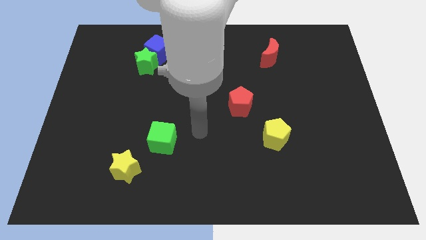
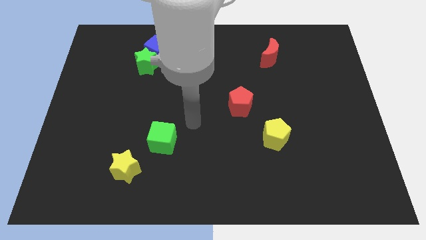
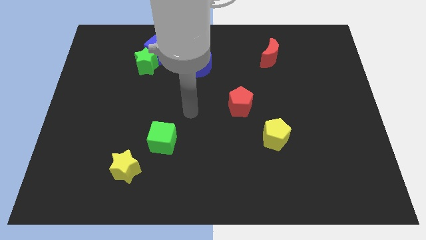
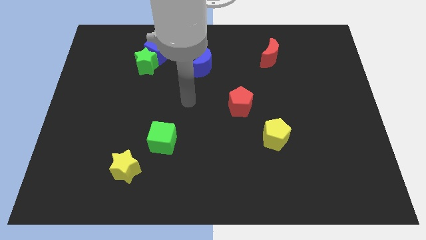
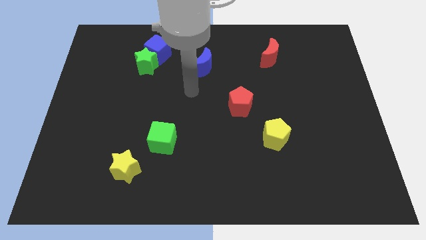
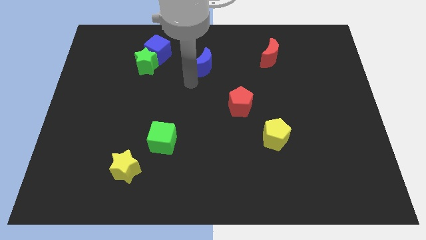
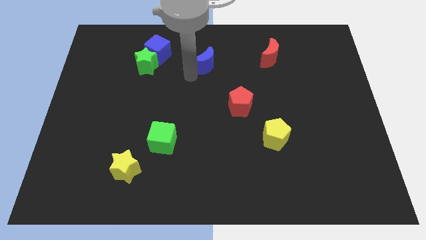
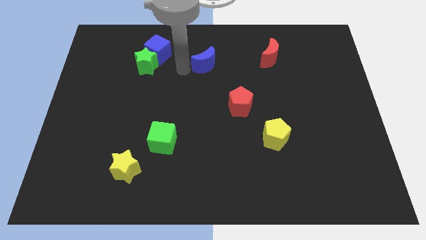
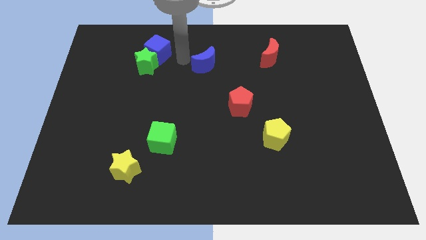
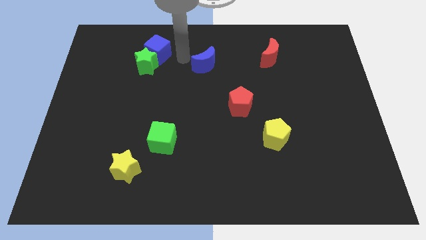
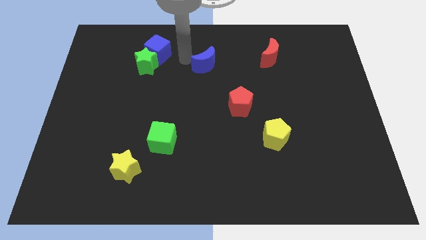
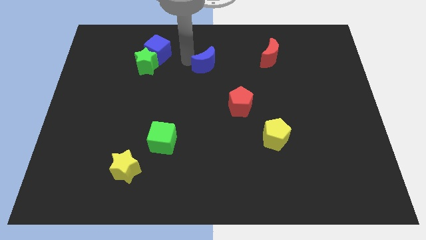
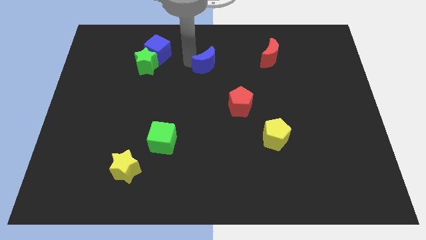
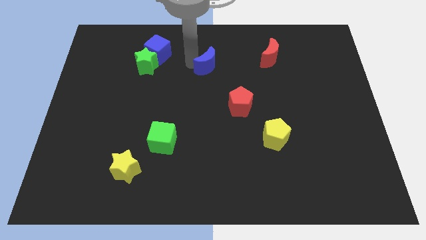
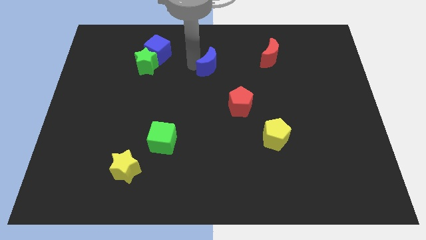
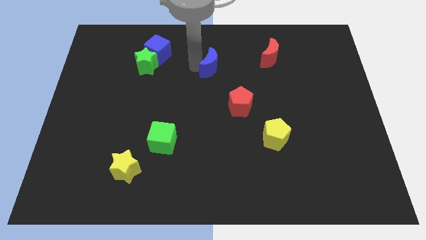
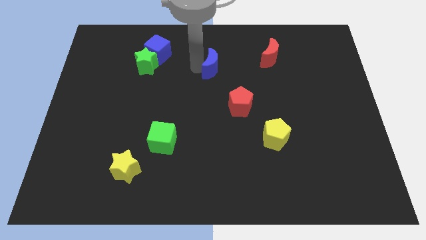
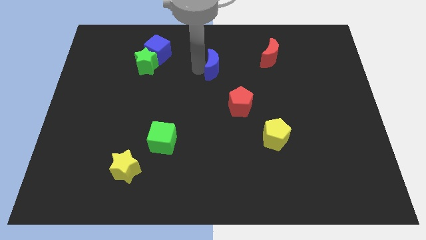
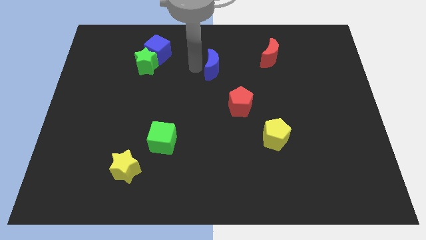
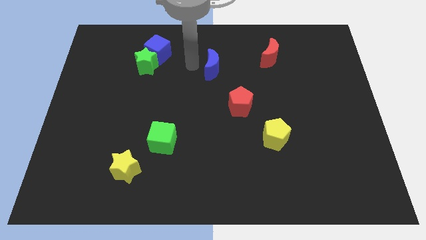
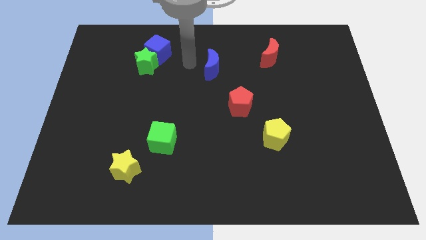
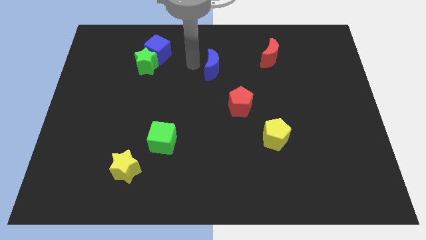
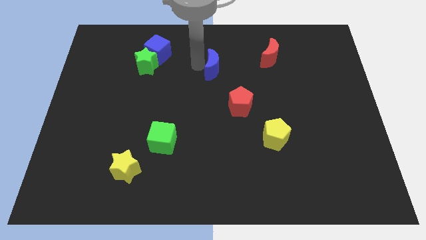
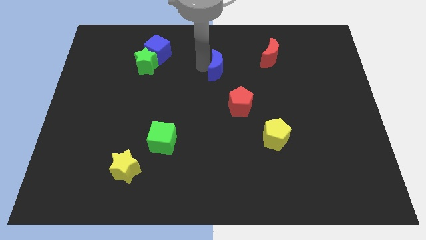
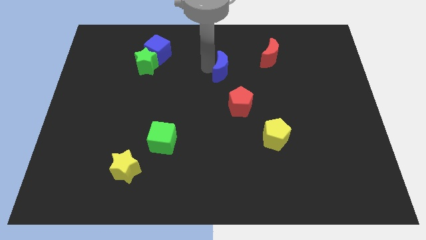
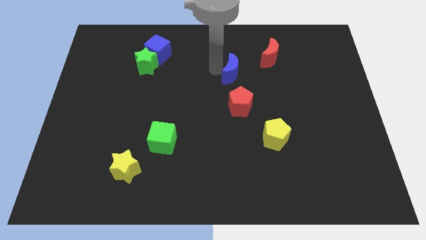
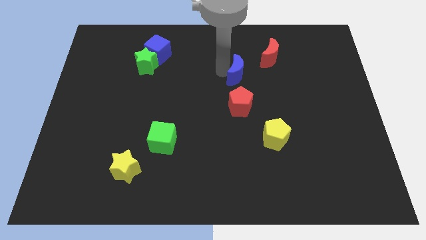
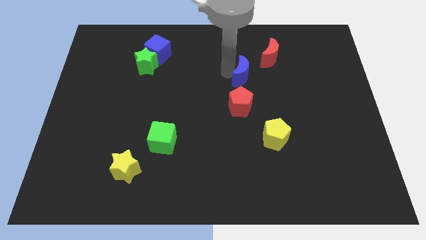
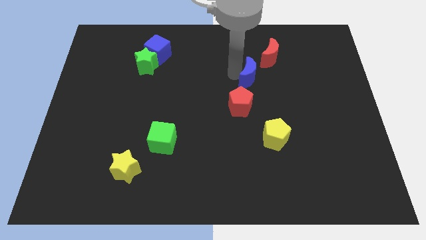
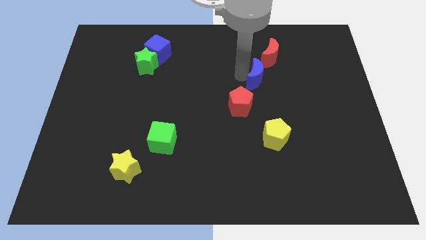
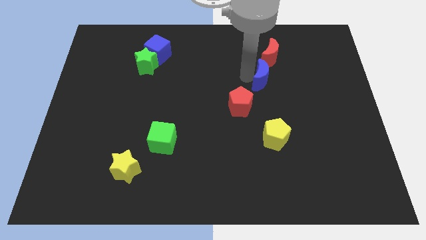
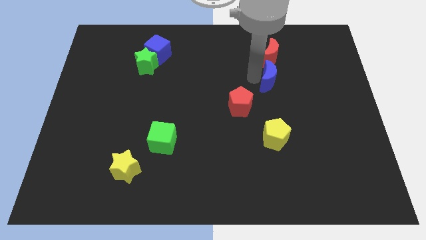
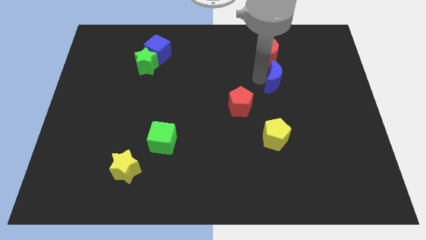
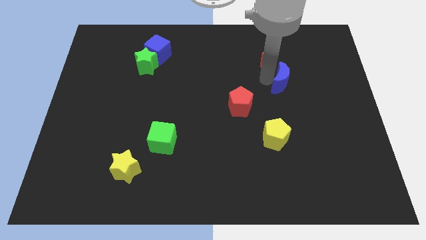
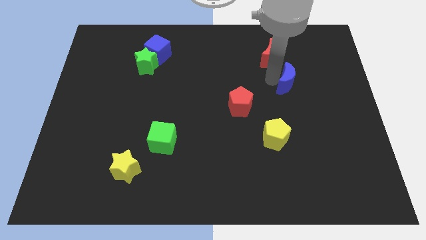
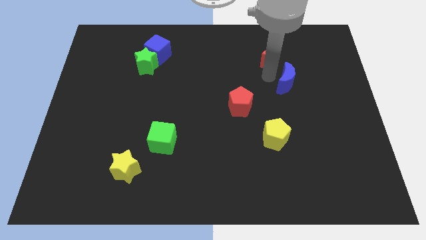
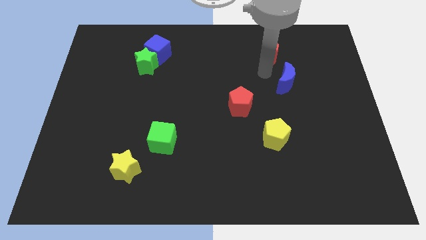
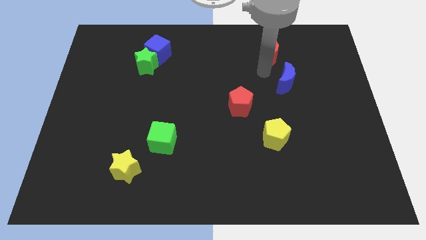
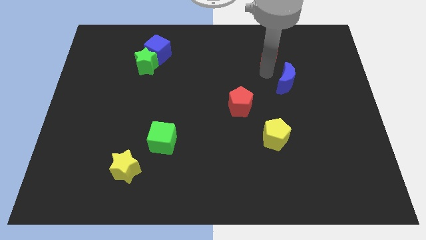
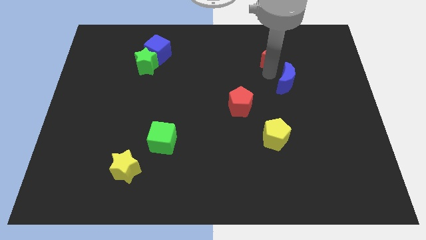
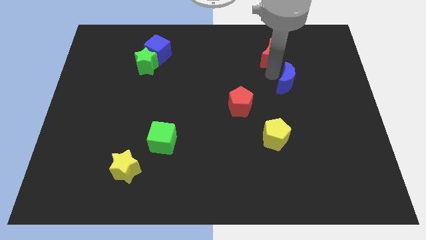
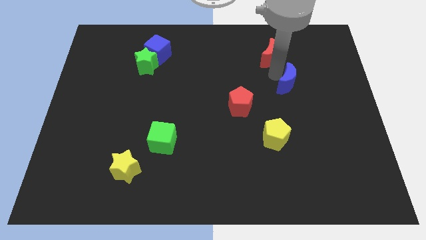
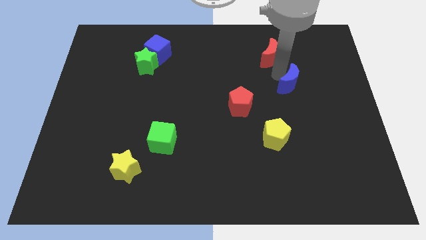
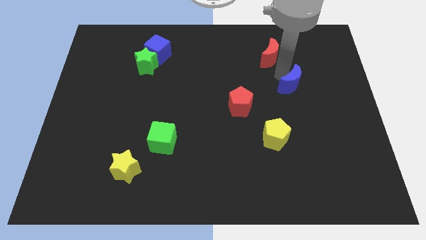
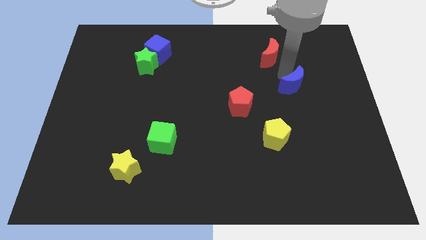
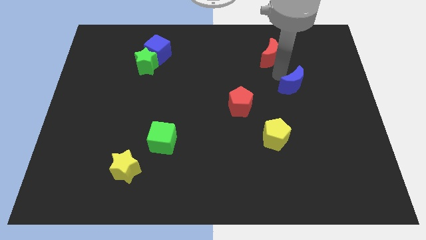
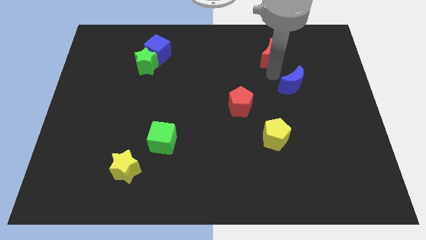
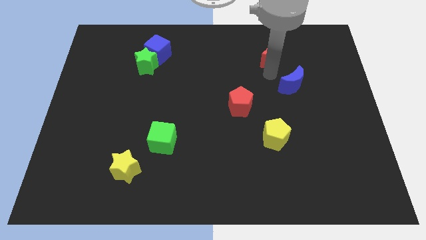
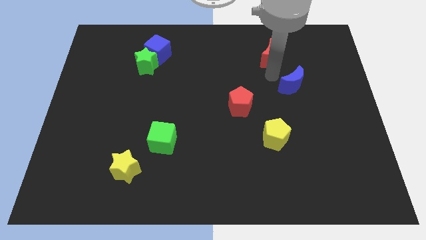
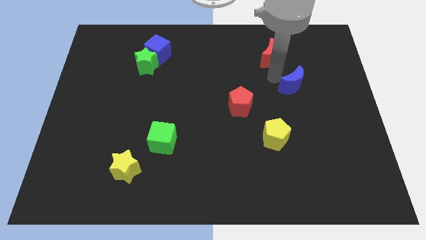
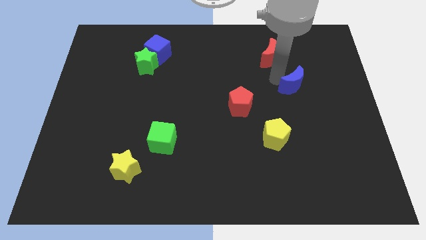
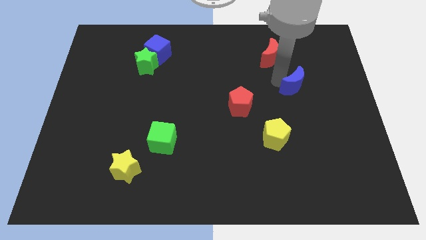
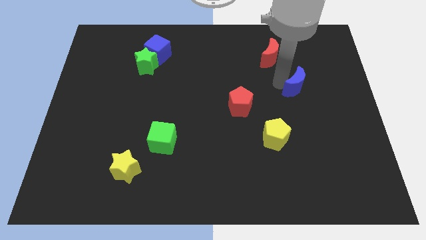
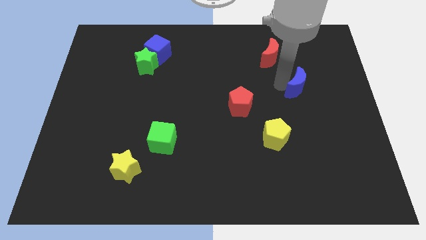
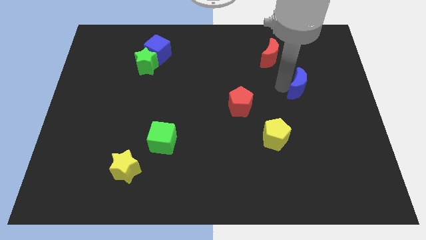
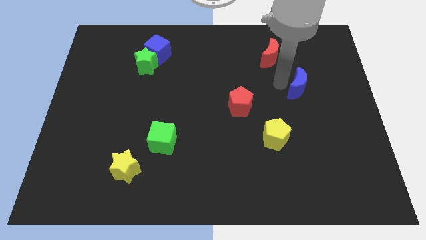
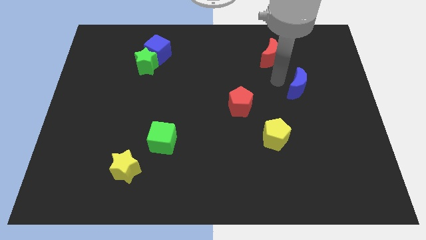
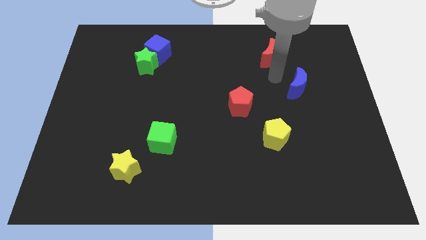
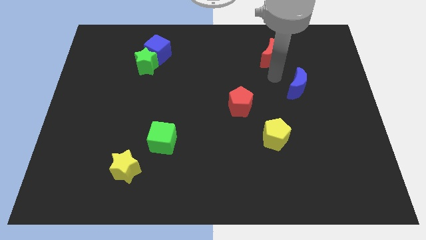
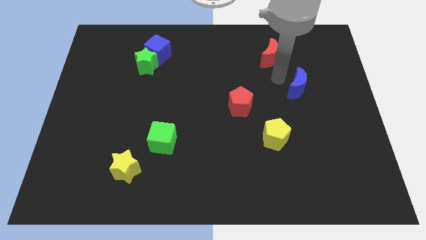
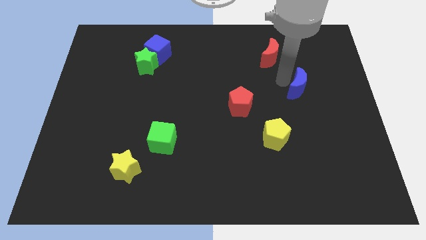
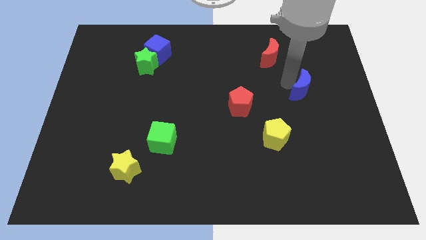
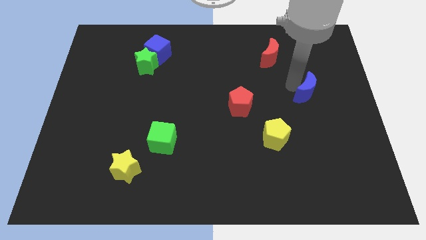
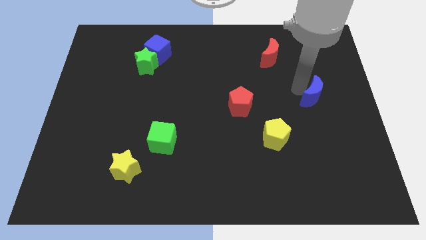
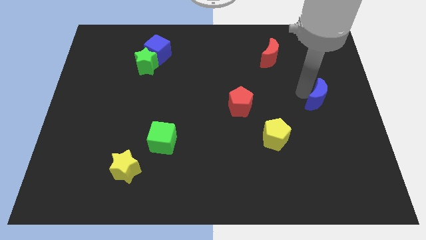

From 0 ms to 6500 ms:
slide the blue moon to the right side

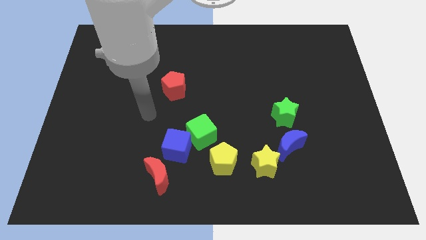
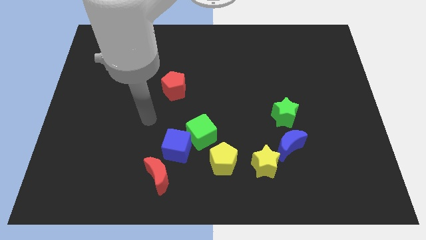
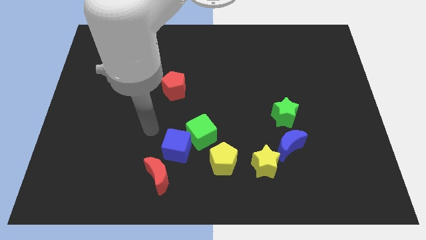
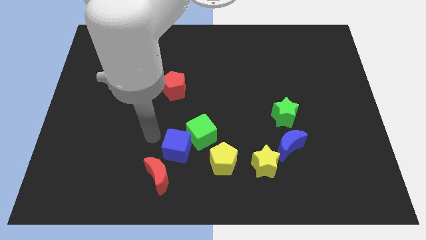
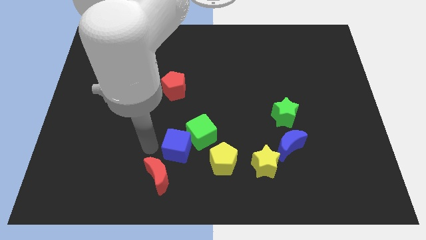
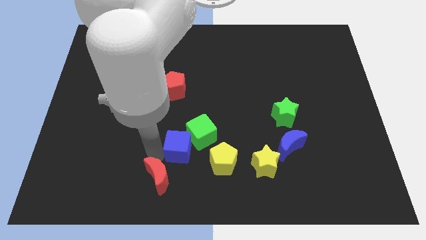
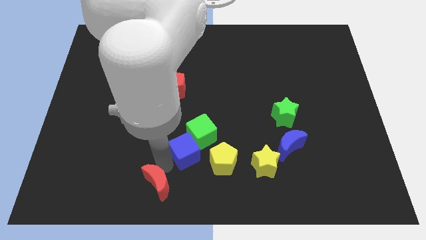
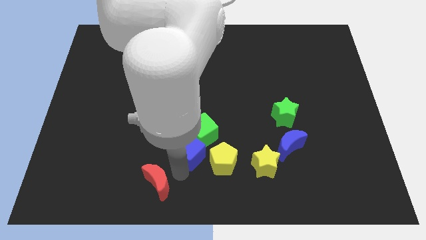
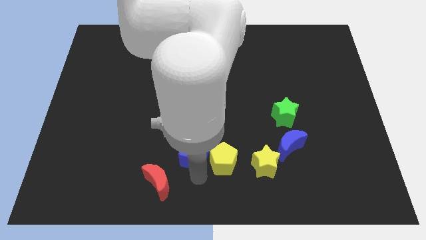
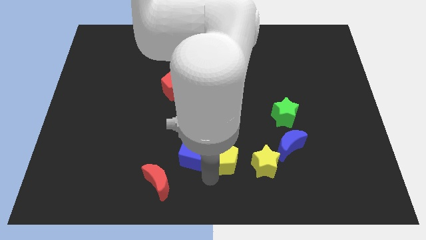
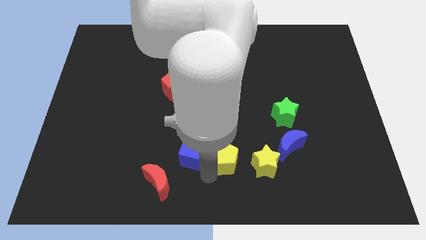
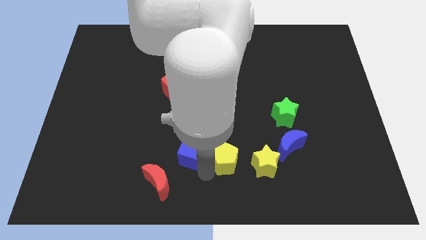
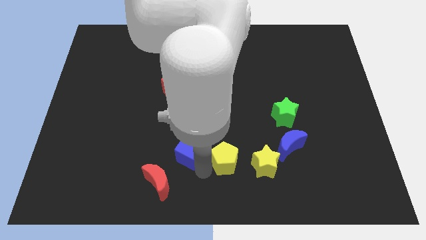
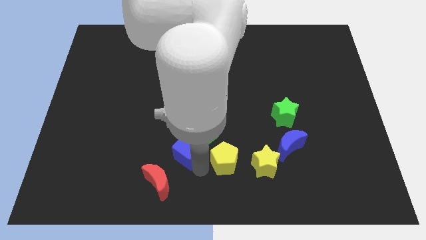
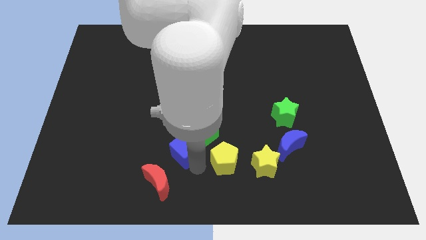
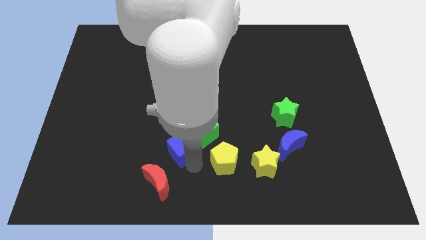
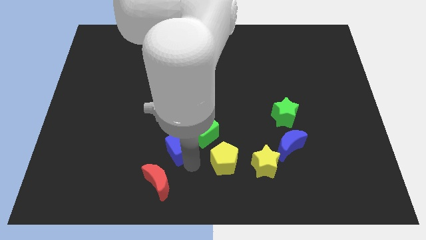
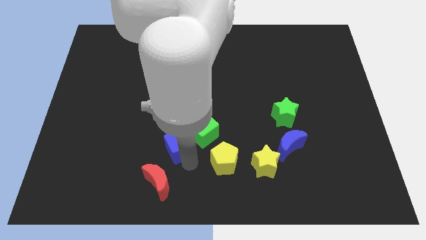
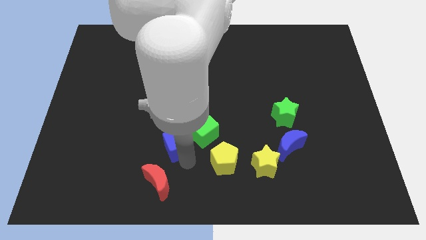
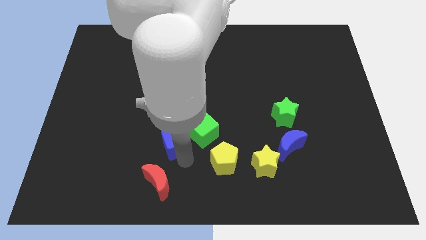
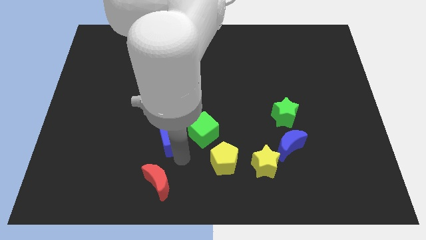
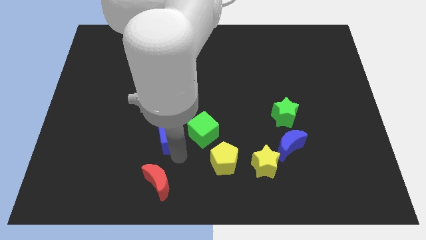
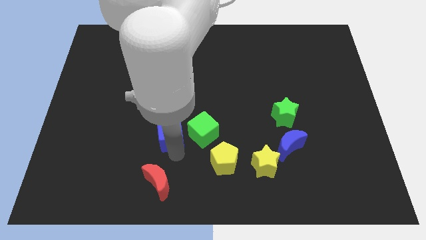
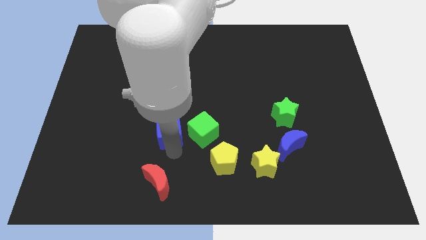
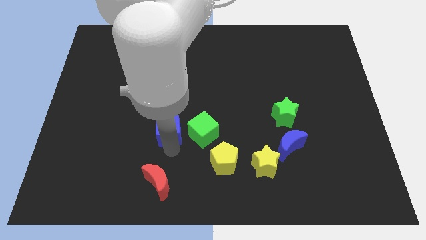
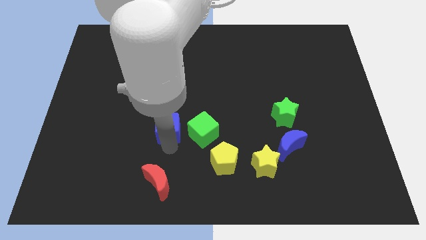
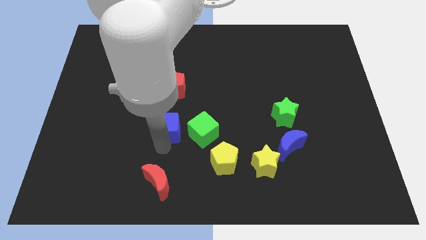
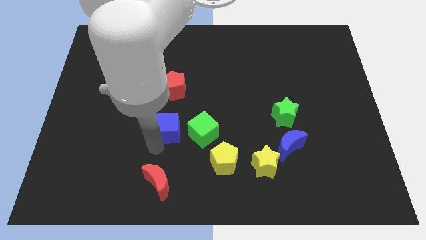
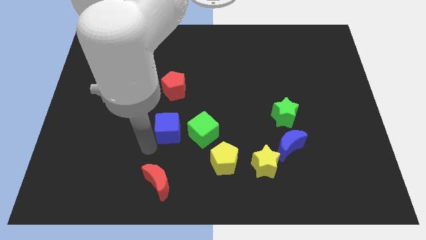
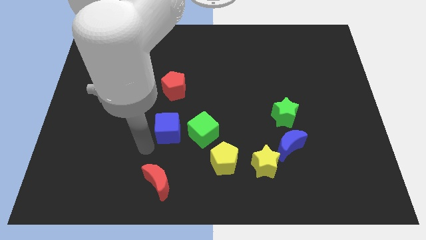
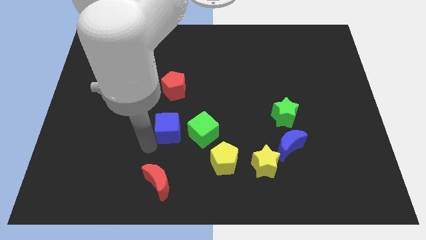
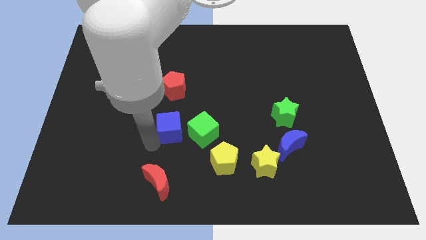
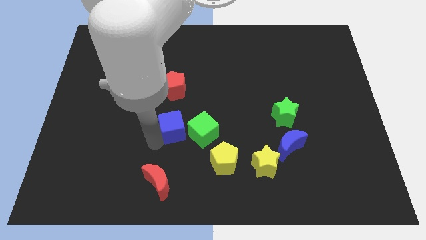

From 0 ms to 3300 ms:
put the blue cube to the center
